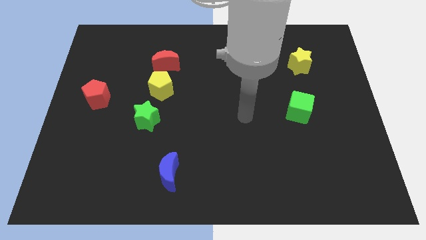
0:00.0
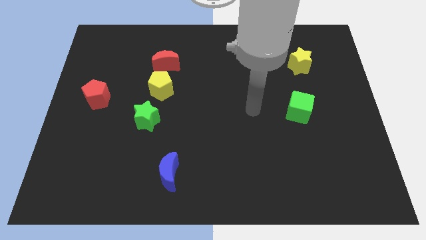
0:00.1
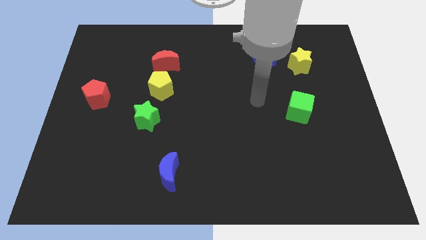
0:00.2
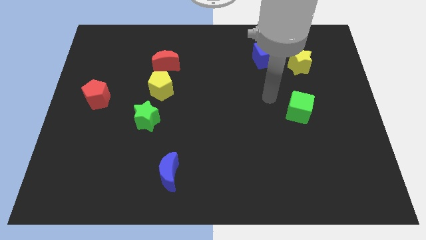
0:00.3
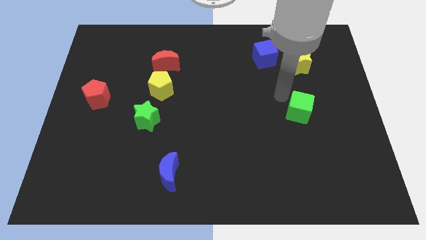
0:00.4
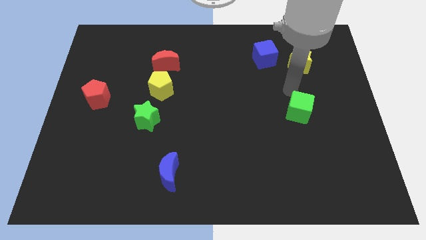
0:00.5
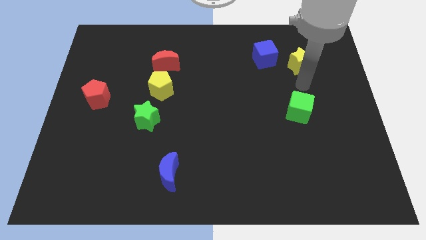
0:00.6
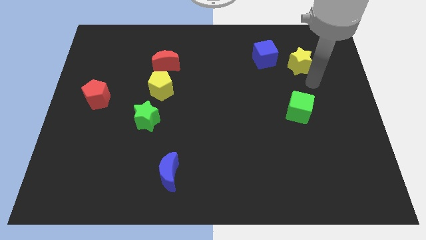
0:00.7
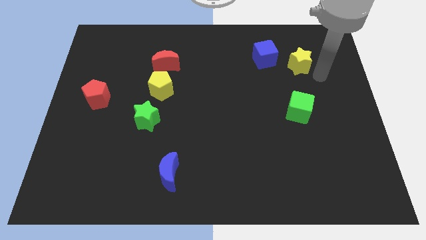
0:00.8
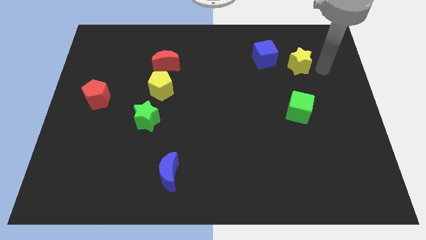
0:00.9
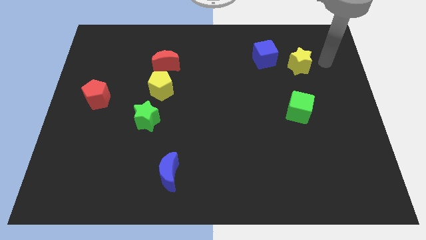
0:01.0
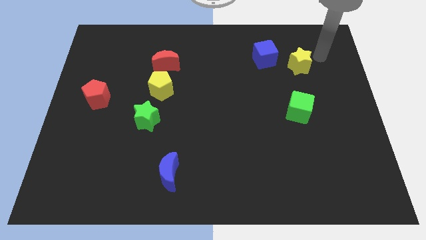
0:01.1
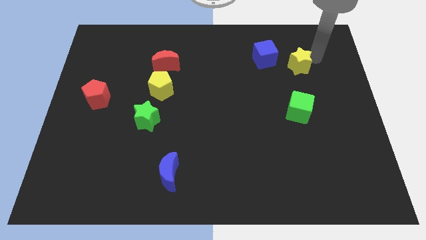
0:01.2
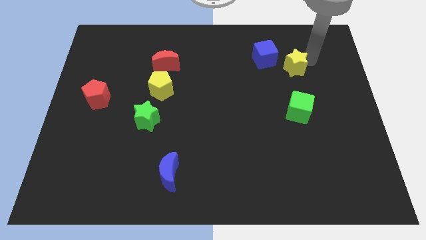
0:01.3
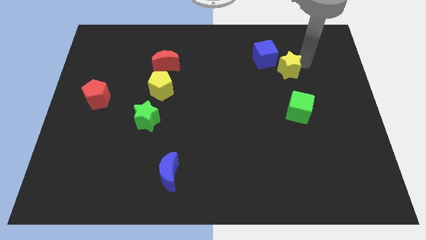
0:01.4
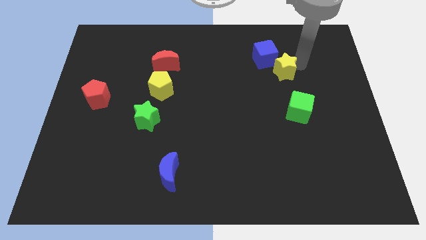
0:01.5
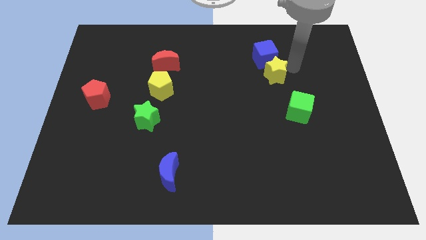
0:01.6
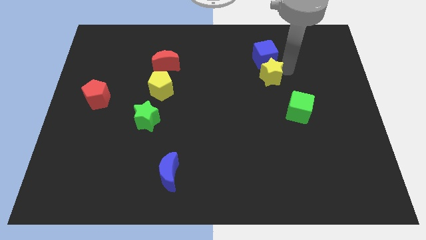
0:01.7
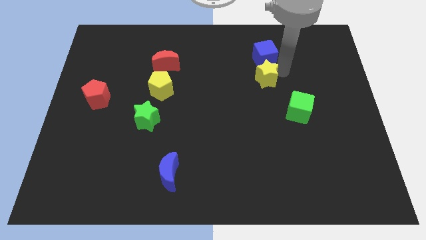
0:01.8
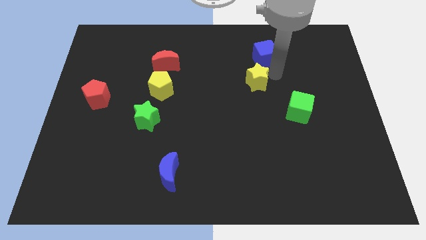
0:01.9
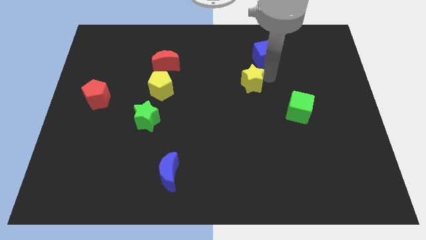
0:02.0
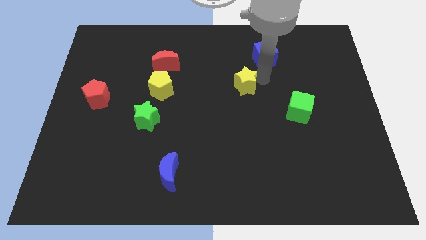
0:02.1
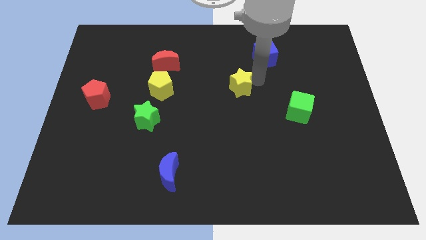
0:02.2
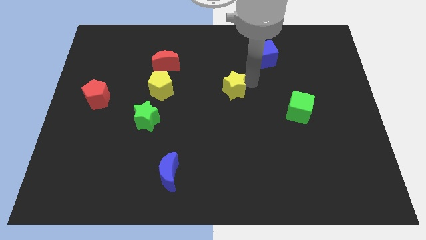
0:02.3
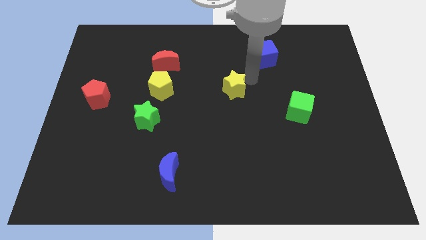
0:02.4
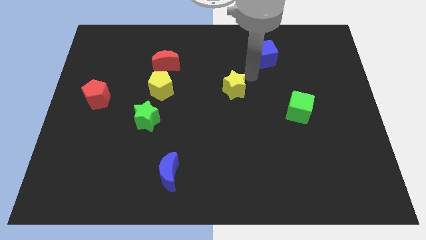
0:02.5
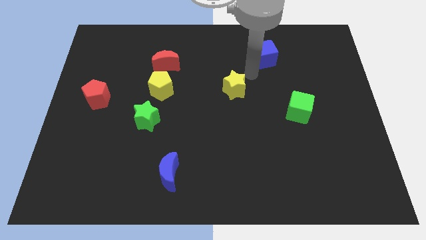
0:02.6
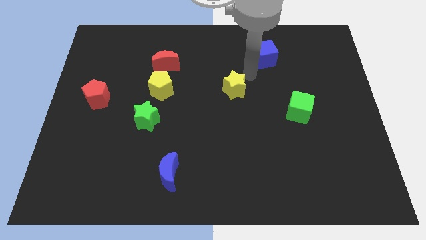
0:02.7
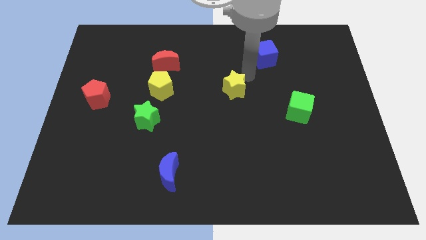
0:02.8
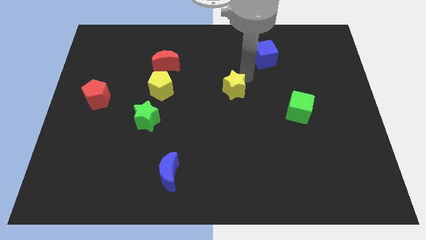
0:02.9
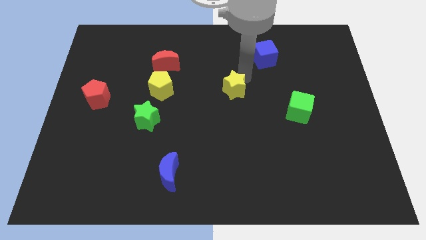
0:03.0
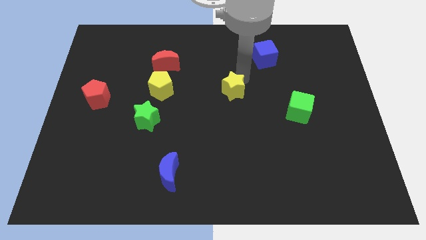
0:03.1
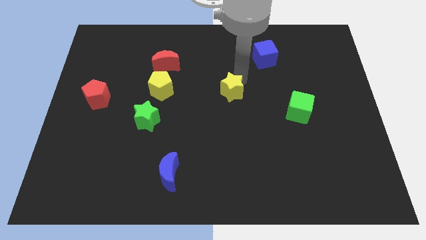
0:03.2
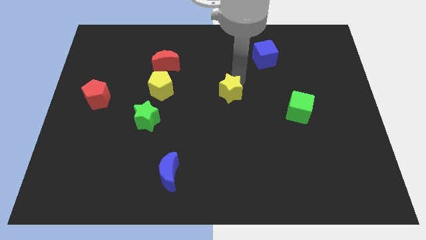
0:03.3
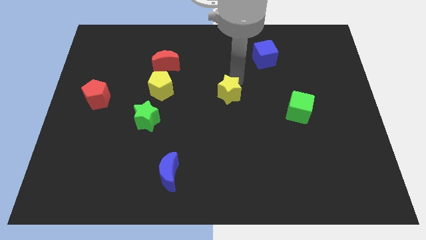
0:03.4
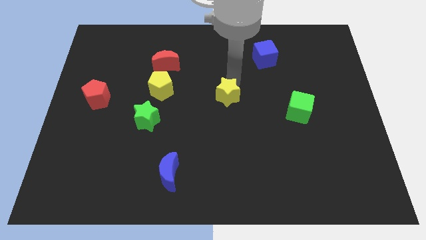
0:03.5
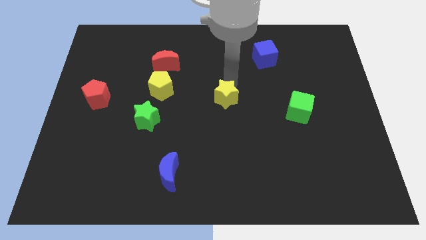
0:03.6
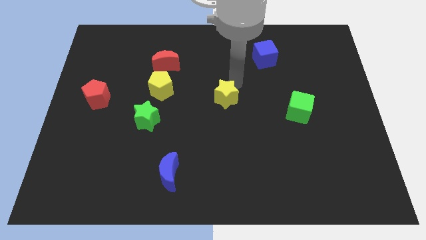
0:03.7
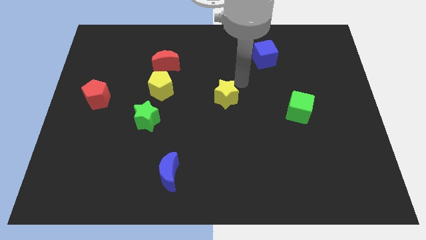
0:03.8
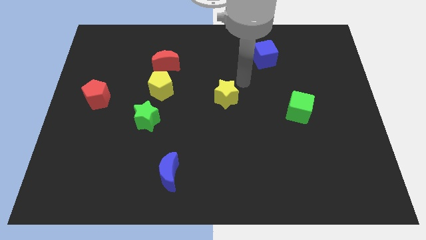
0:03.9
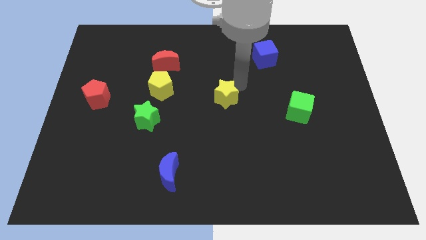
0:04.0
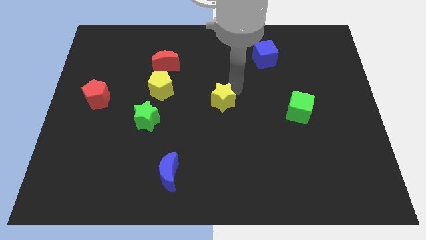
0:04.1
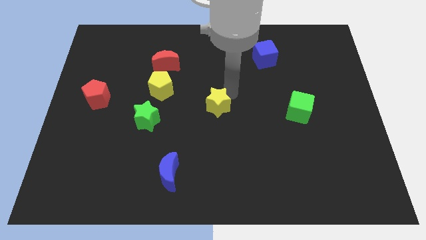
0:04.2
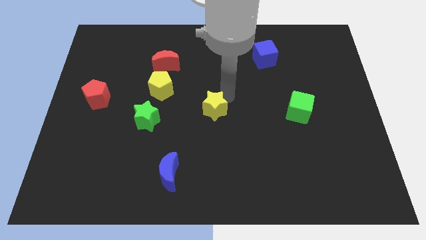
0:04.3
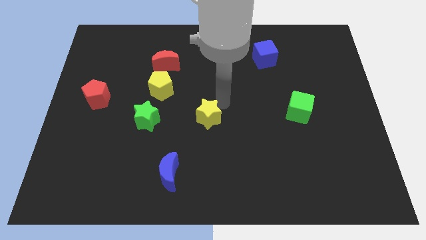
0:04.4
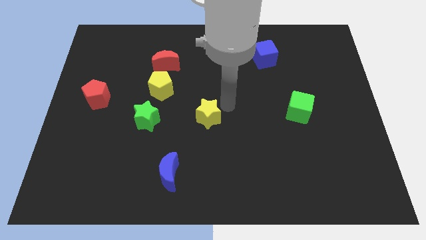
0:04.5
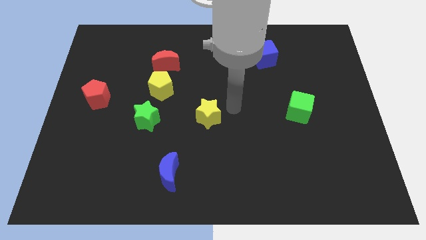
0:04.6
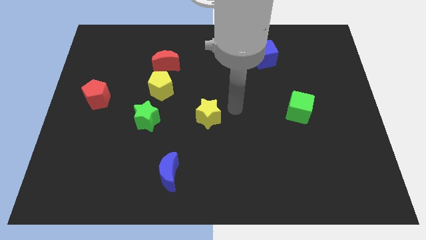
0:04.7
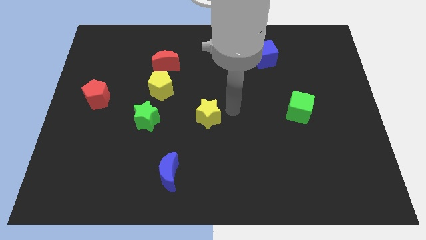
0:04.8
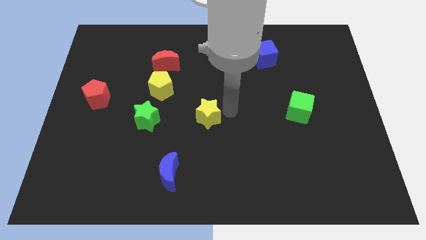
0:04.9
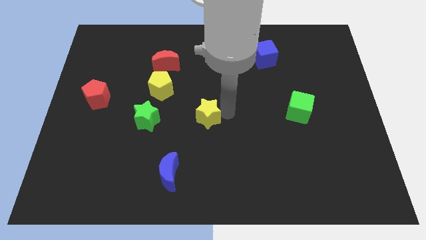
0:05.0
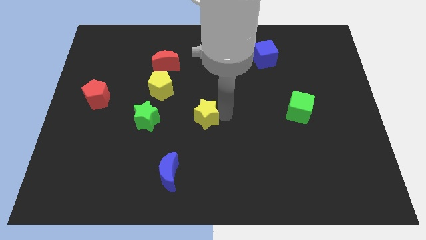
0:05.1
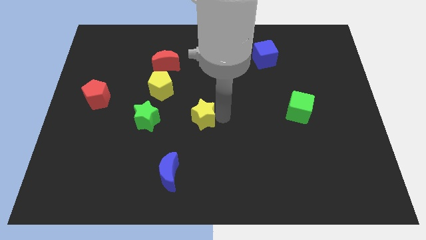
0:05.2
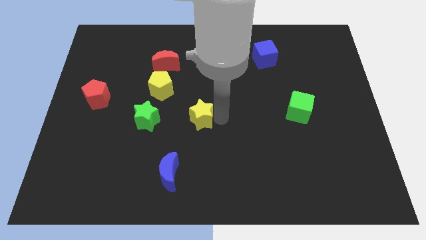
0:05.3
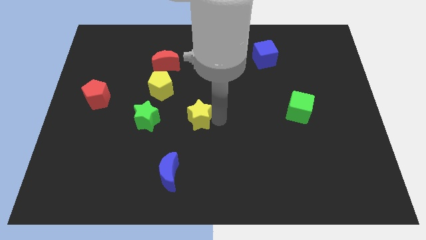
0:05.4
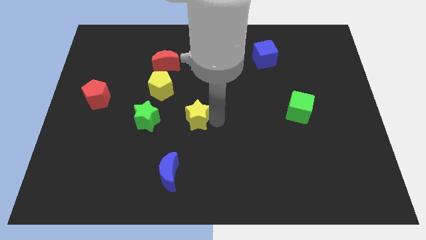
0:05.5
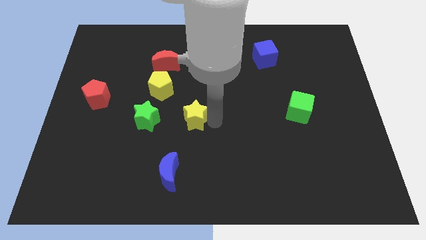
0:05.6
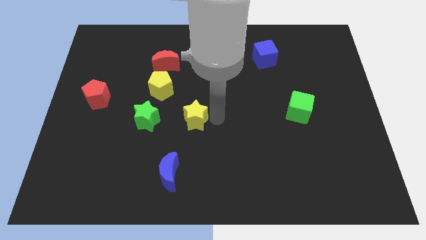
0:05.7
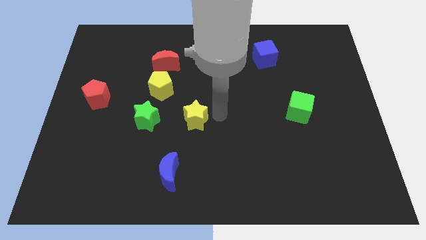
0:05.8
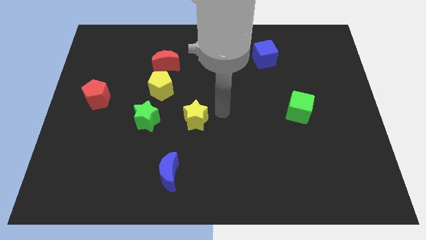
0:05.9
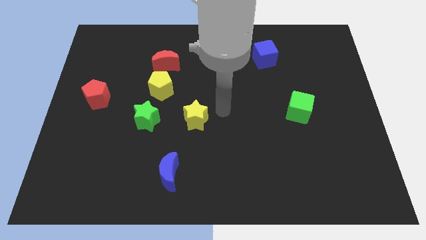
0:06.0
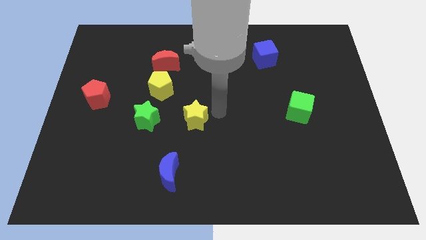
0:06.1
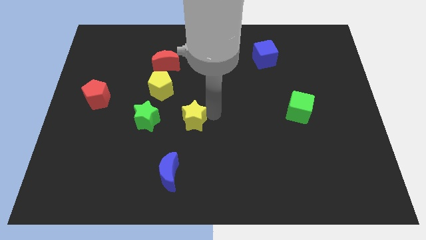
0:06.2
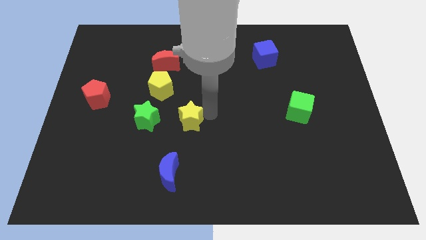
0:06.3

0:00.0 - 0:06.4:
slide the yellow star to the top side of the blue moon
